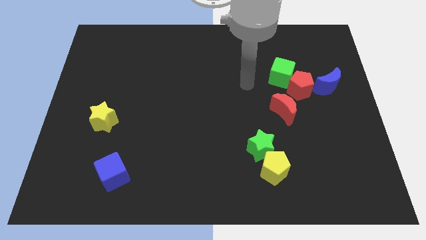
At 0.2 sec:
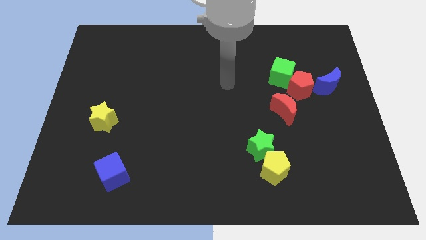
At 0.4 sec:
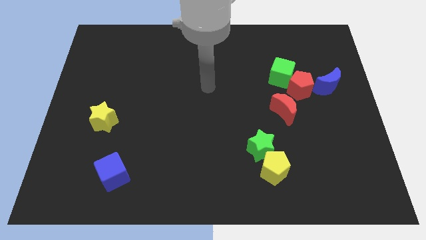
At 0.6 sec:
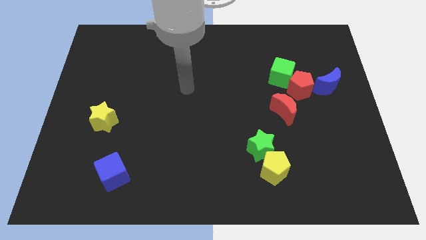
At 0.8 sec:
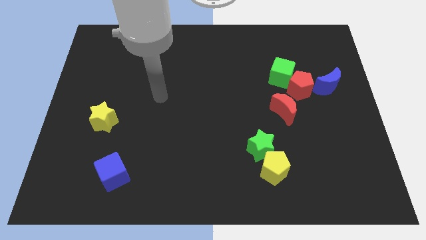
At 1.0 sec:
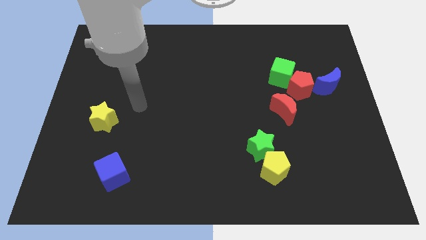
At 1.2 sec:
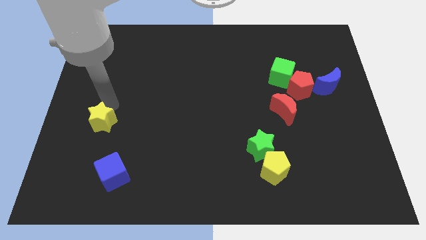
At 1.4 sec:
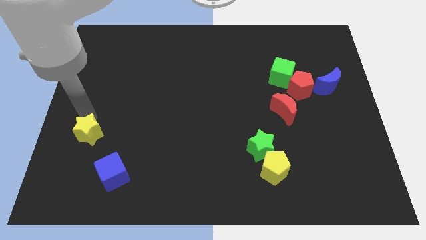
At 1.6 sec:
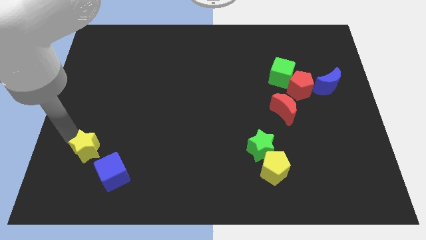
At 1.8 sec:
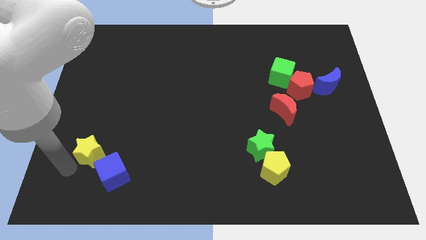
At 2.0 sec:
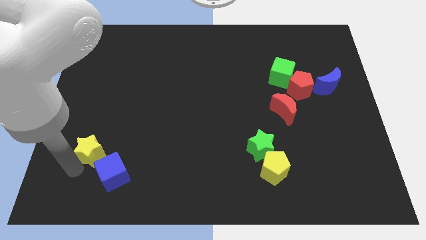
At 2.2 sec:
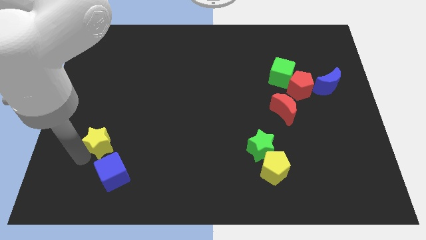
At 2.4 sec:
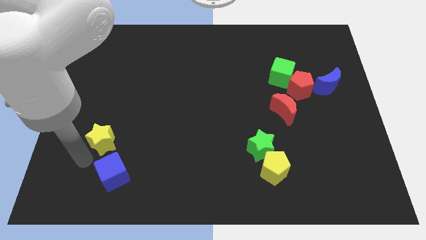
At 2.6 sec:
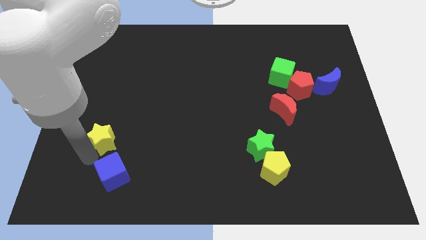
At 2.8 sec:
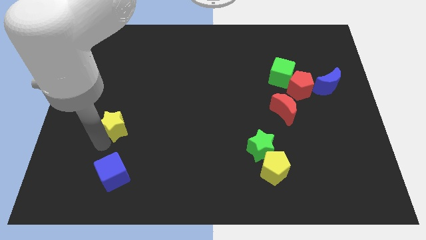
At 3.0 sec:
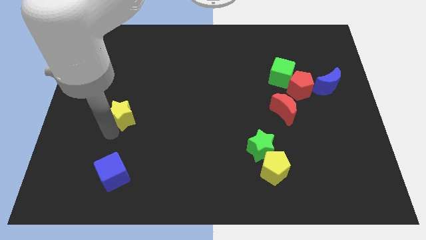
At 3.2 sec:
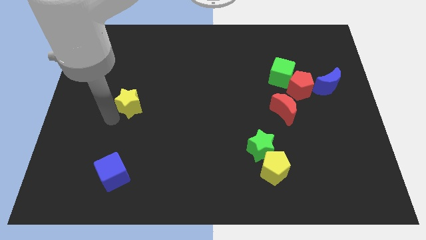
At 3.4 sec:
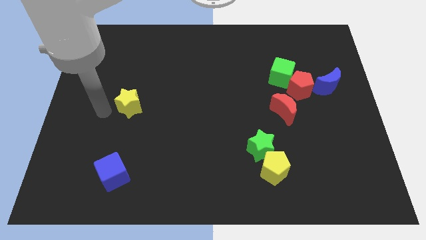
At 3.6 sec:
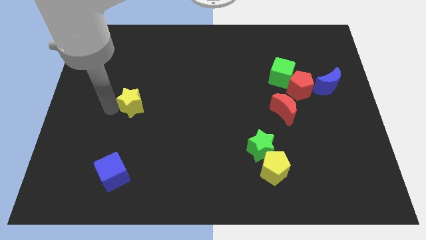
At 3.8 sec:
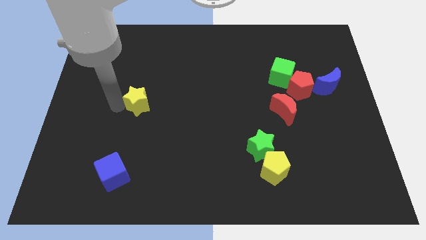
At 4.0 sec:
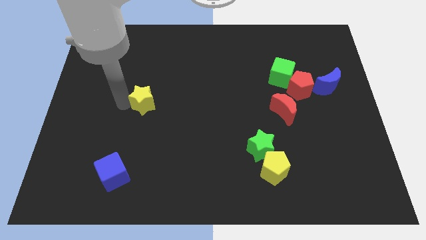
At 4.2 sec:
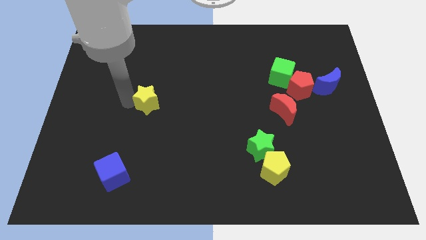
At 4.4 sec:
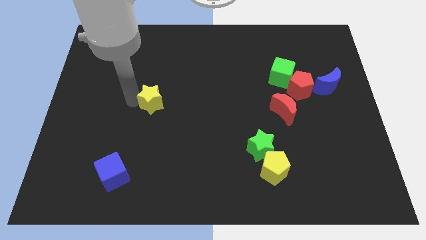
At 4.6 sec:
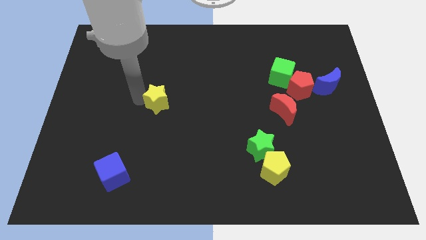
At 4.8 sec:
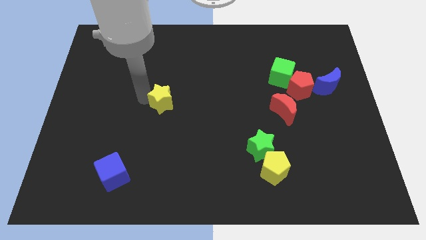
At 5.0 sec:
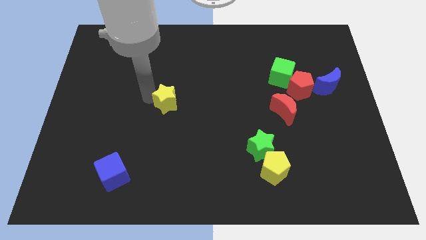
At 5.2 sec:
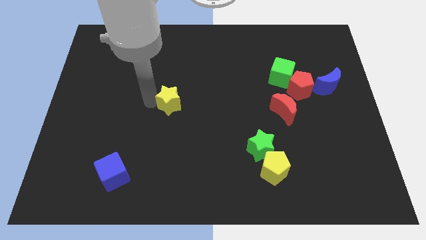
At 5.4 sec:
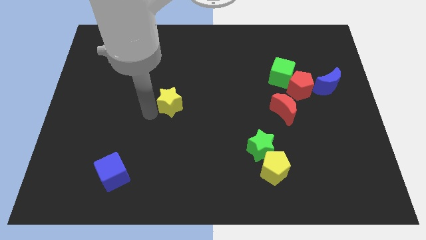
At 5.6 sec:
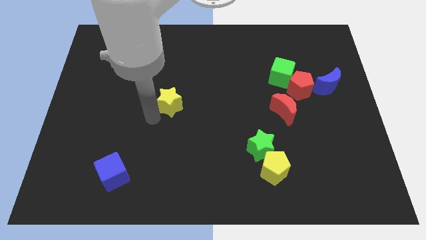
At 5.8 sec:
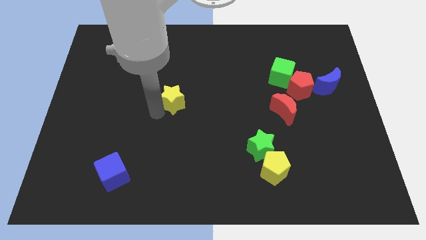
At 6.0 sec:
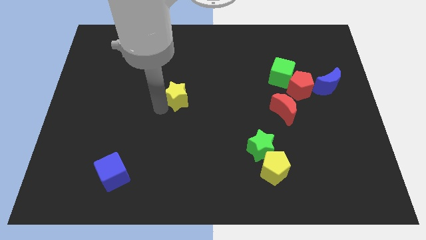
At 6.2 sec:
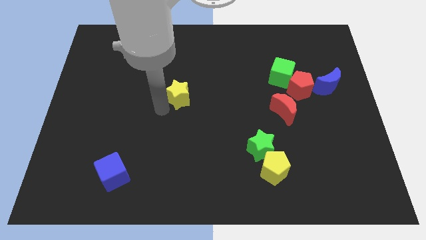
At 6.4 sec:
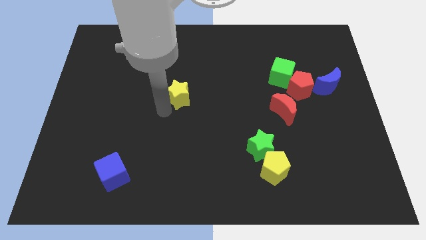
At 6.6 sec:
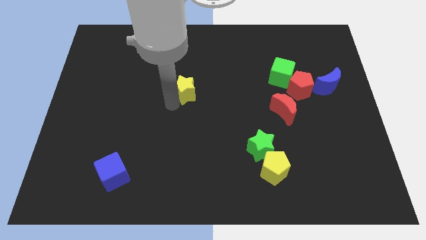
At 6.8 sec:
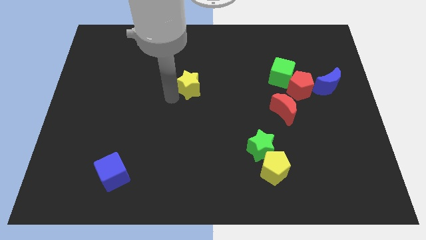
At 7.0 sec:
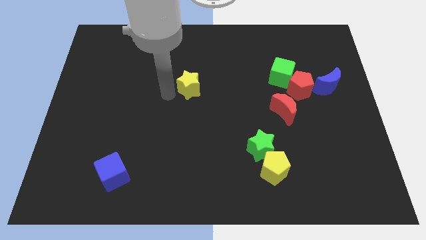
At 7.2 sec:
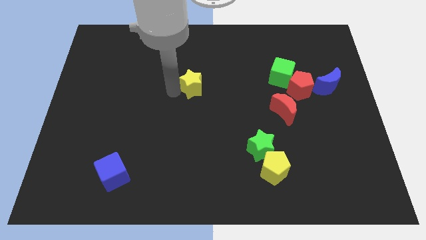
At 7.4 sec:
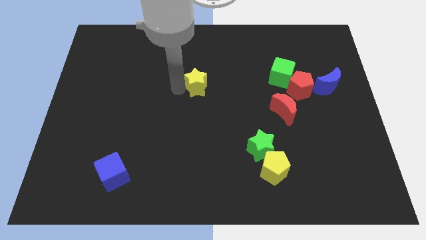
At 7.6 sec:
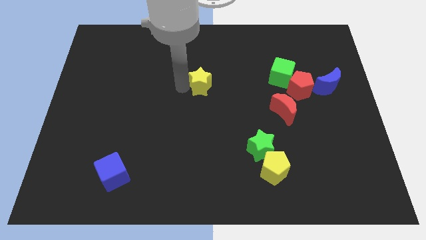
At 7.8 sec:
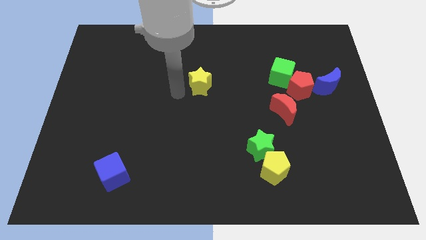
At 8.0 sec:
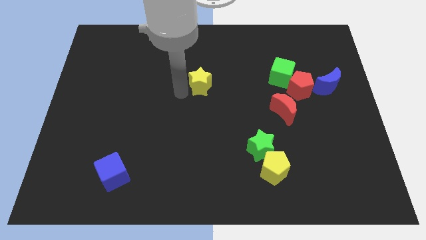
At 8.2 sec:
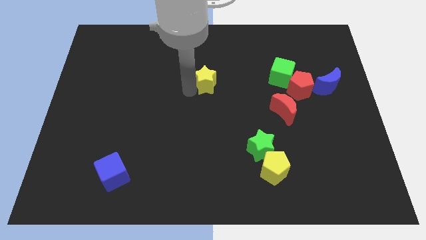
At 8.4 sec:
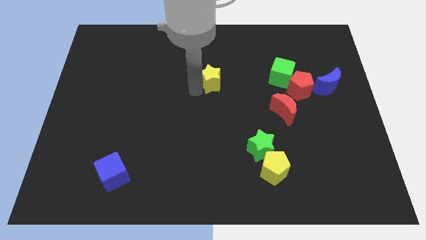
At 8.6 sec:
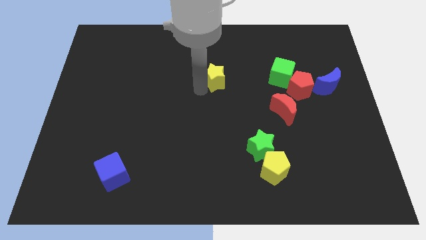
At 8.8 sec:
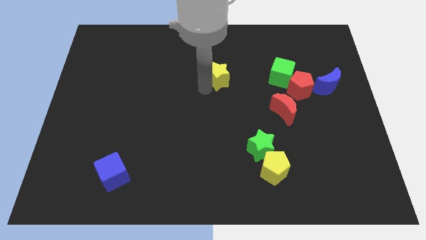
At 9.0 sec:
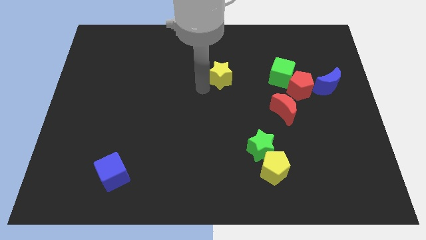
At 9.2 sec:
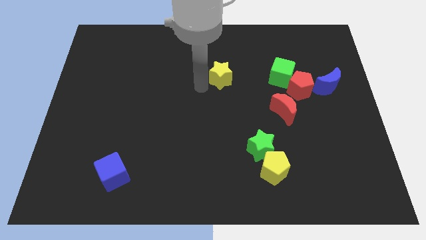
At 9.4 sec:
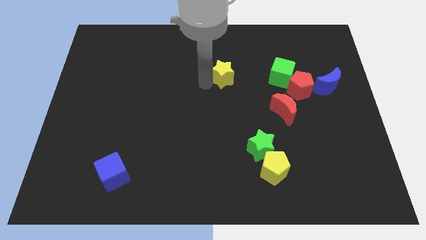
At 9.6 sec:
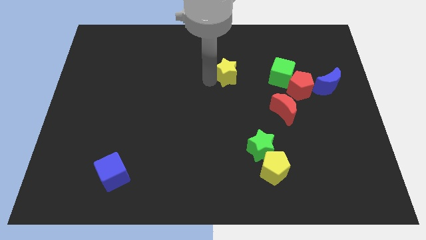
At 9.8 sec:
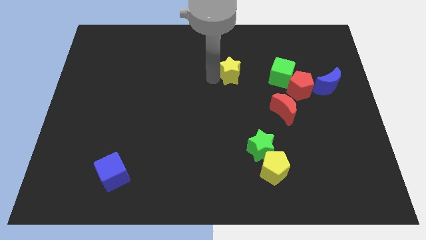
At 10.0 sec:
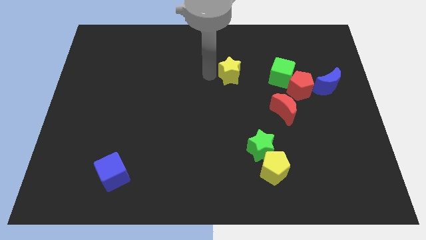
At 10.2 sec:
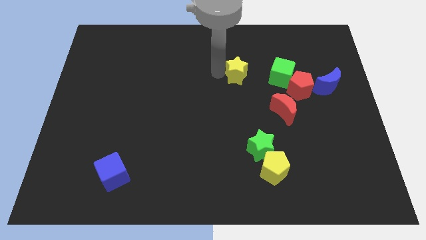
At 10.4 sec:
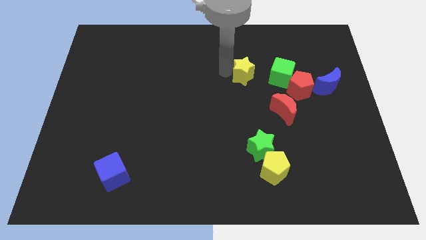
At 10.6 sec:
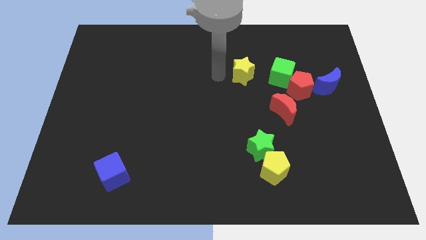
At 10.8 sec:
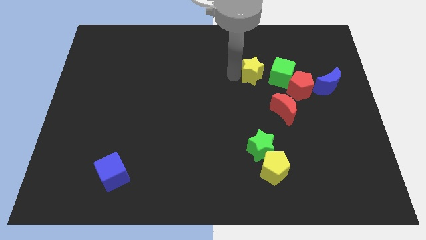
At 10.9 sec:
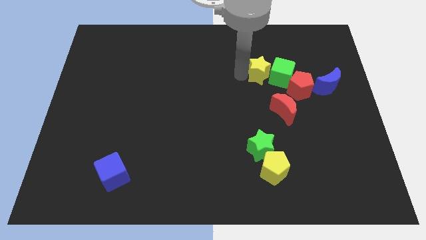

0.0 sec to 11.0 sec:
put the yellow star diagonally up and to the left of the red pentagon
